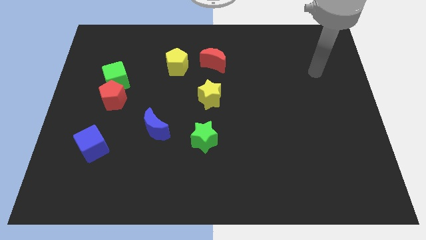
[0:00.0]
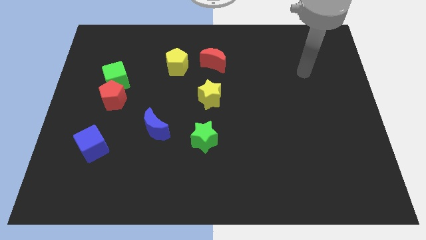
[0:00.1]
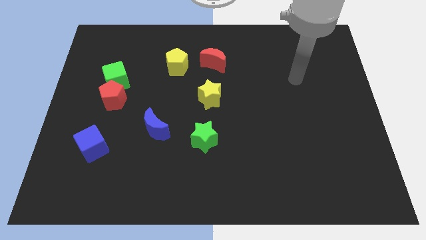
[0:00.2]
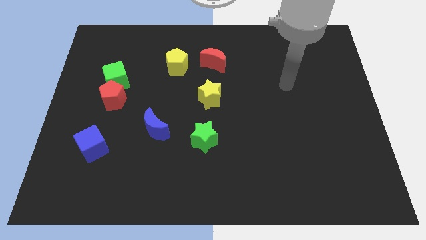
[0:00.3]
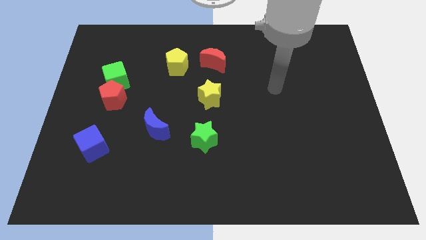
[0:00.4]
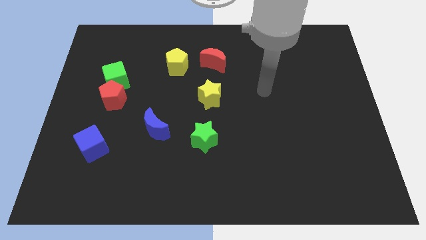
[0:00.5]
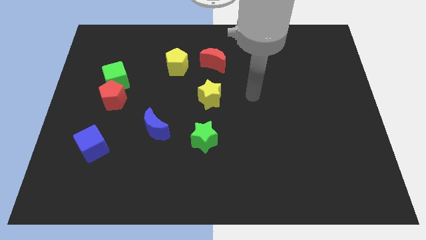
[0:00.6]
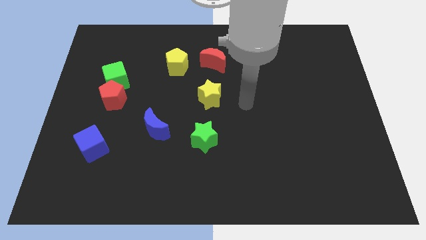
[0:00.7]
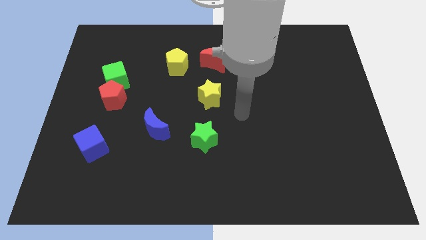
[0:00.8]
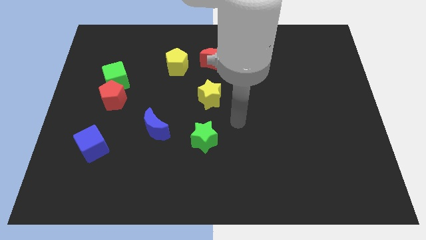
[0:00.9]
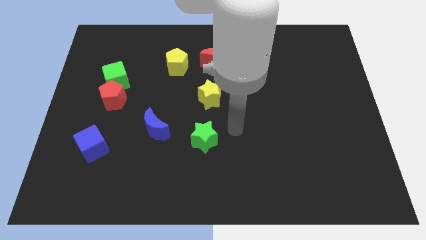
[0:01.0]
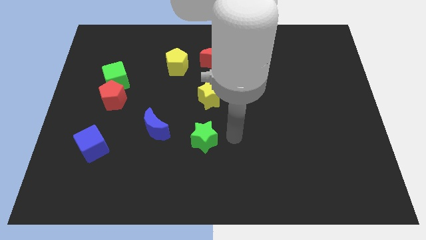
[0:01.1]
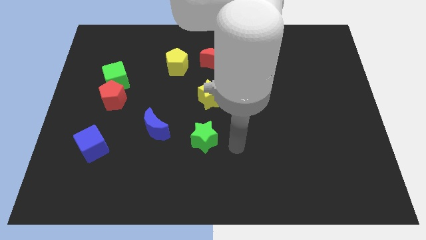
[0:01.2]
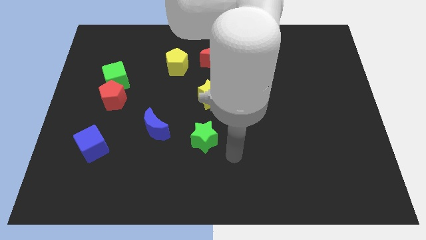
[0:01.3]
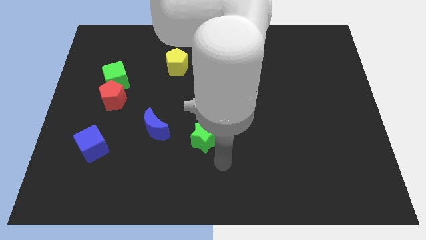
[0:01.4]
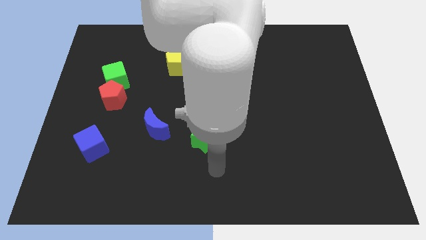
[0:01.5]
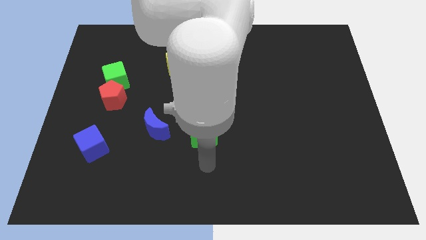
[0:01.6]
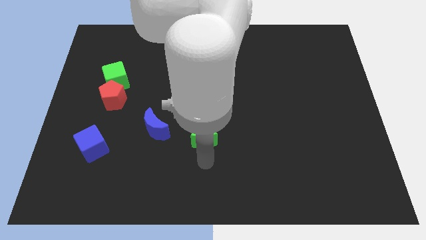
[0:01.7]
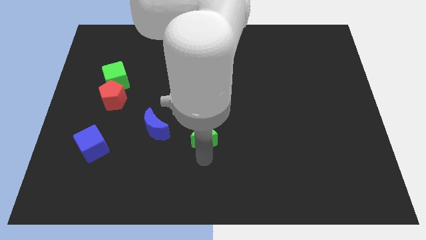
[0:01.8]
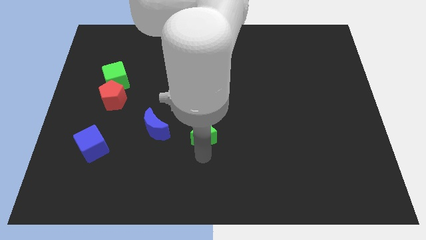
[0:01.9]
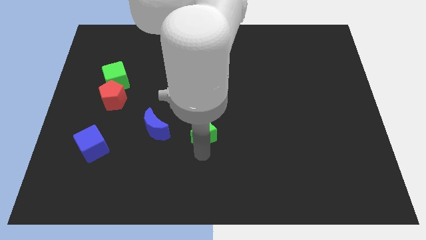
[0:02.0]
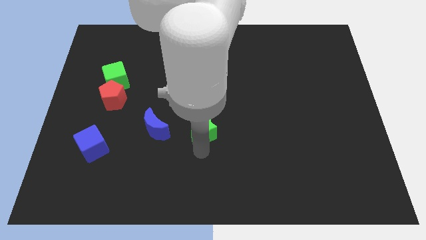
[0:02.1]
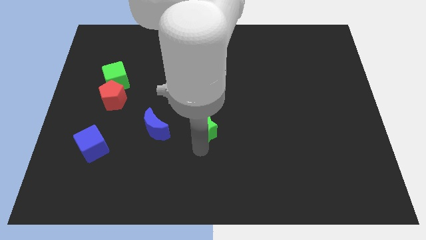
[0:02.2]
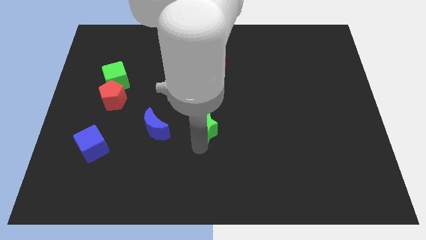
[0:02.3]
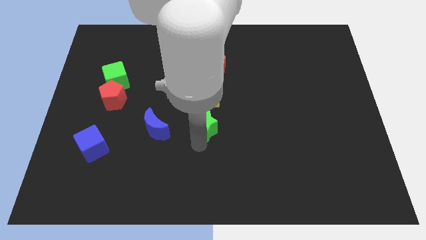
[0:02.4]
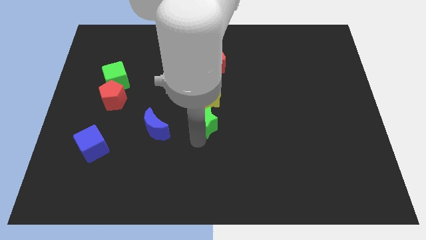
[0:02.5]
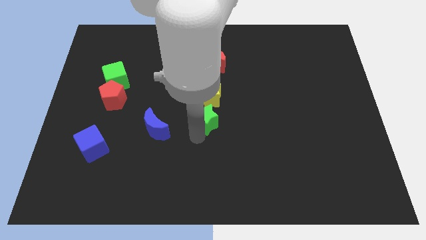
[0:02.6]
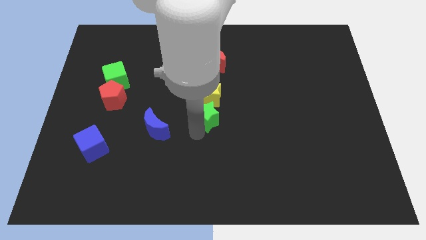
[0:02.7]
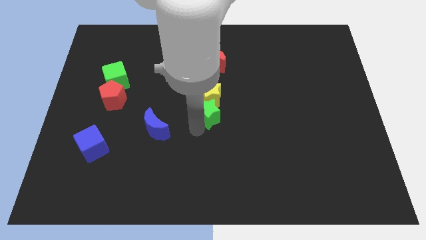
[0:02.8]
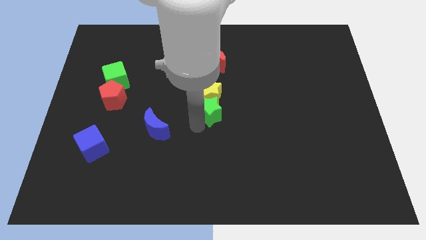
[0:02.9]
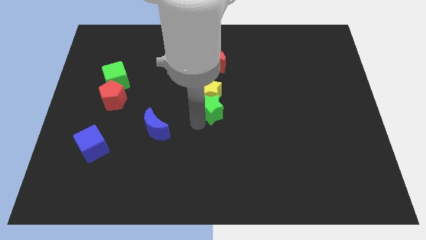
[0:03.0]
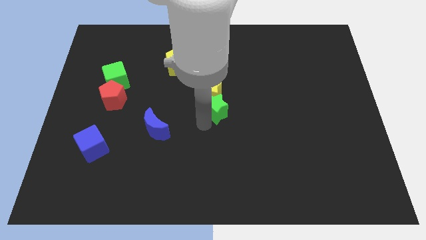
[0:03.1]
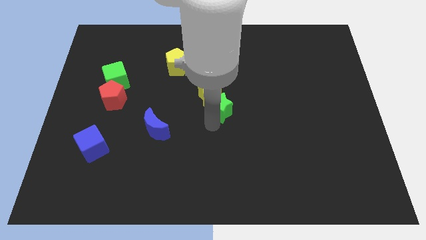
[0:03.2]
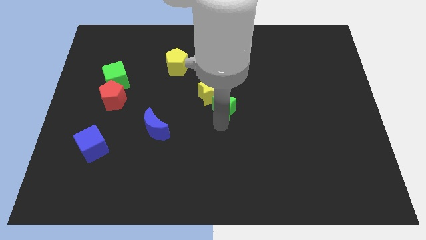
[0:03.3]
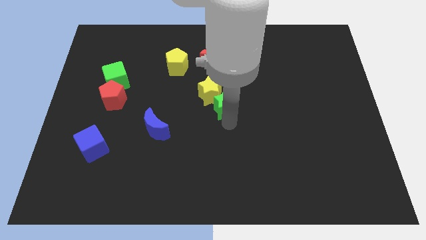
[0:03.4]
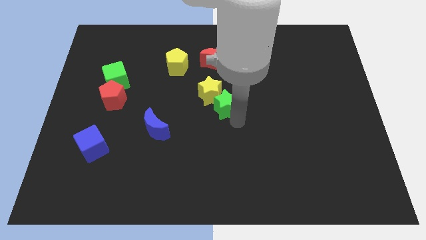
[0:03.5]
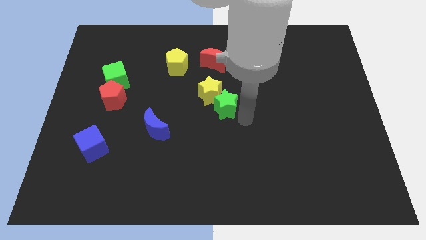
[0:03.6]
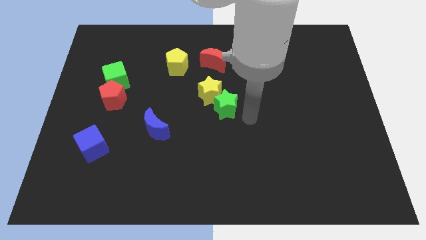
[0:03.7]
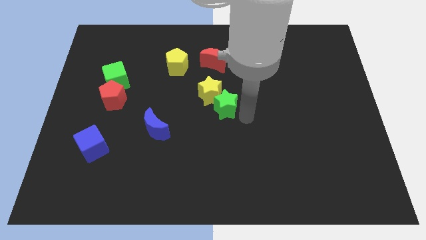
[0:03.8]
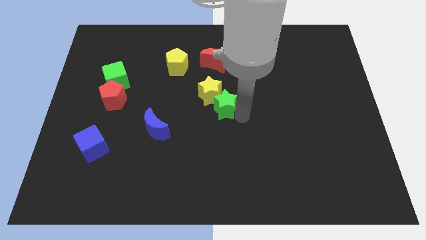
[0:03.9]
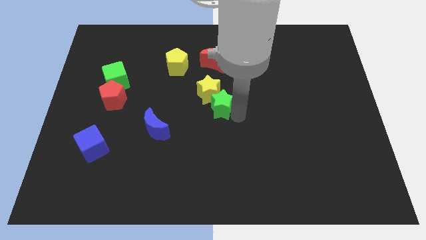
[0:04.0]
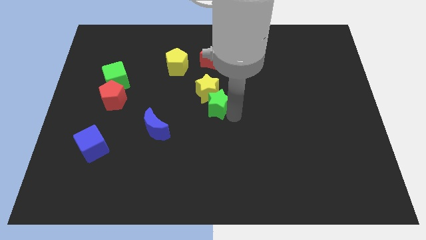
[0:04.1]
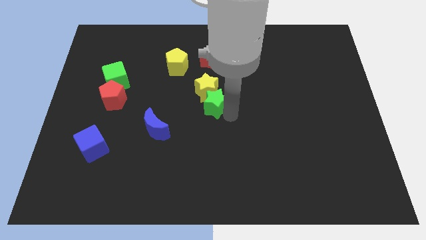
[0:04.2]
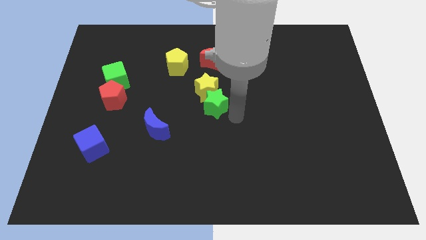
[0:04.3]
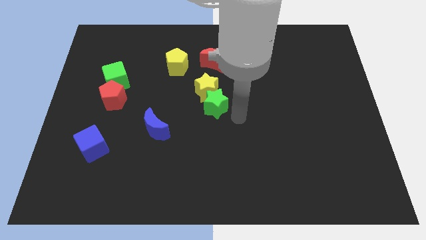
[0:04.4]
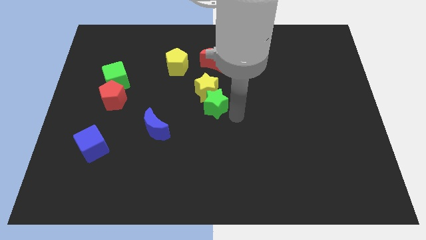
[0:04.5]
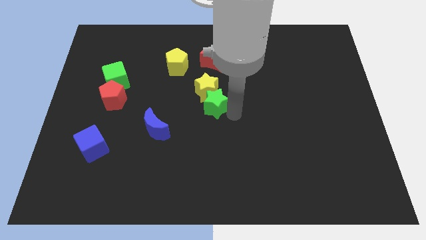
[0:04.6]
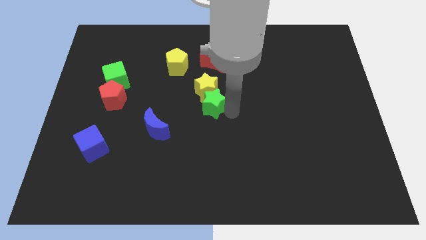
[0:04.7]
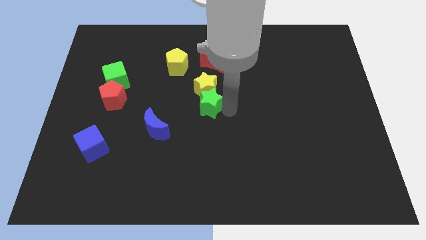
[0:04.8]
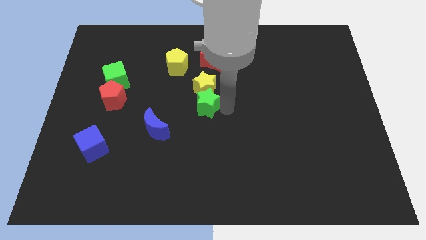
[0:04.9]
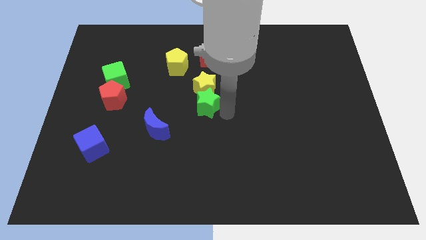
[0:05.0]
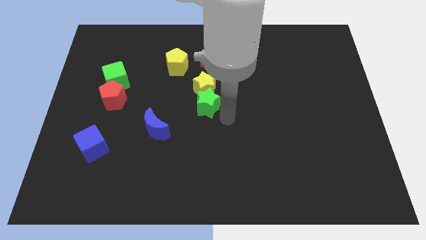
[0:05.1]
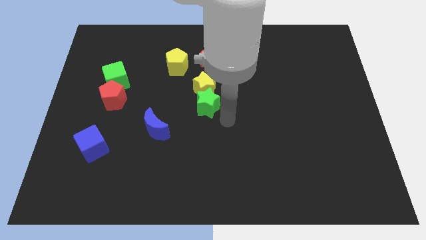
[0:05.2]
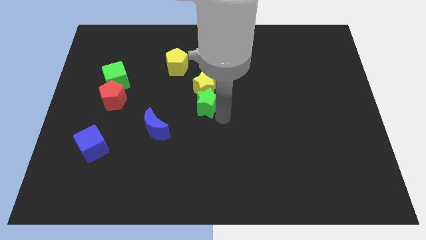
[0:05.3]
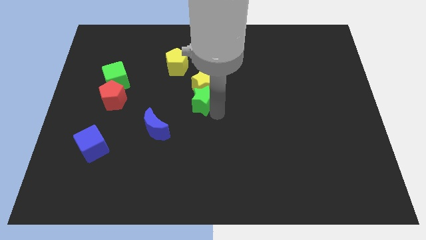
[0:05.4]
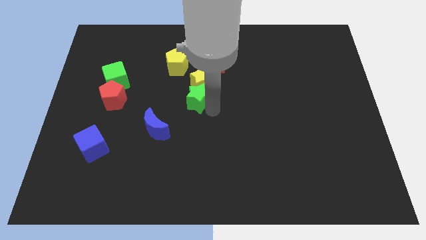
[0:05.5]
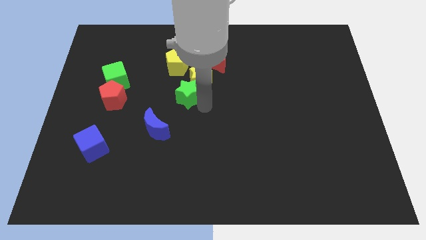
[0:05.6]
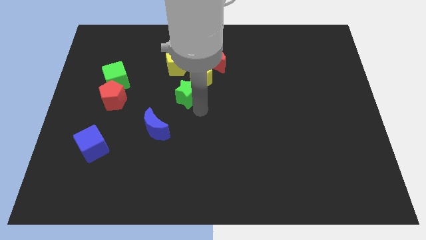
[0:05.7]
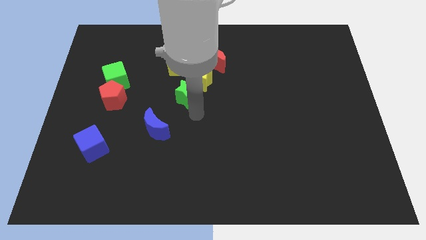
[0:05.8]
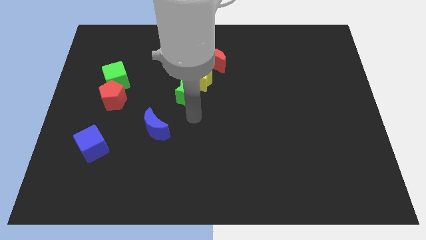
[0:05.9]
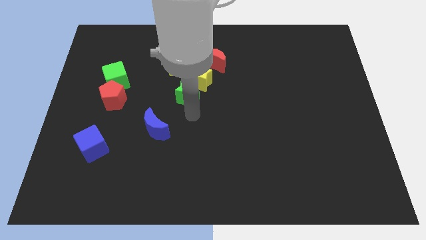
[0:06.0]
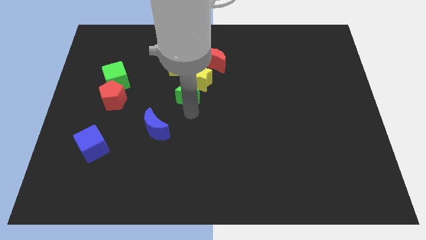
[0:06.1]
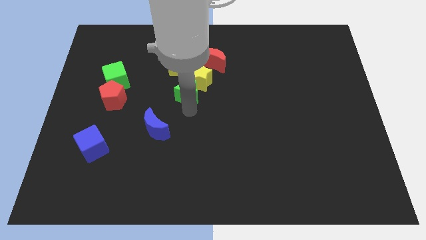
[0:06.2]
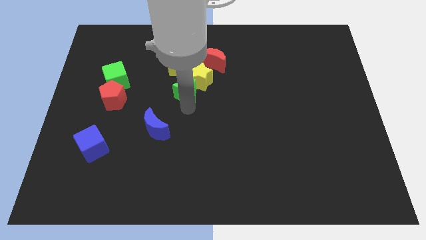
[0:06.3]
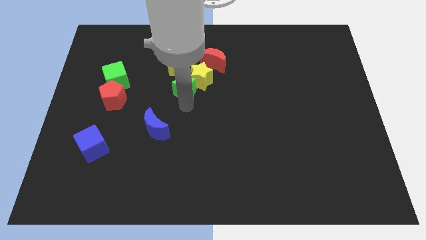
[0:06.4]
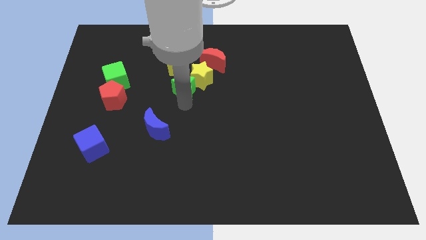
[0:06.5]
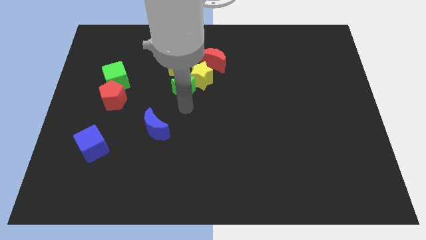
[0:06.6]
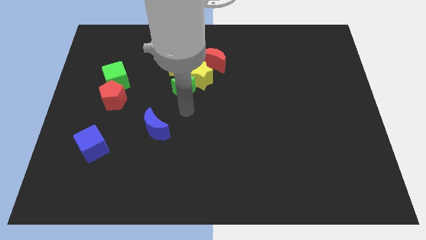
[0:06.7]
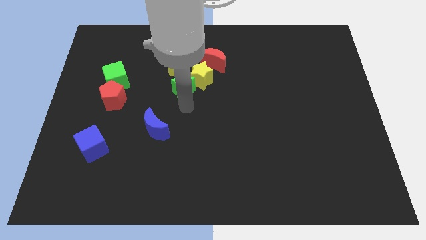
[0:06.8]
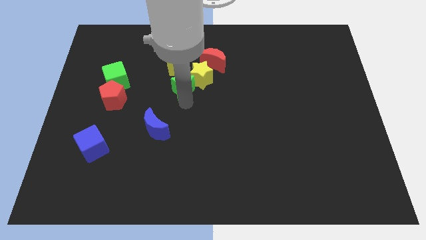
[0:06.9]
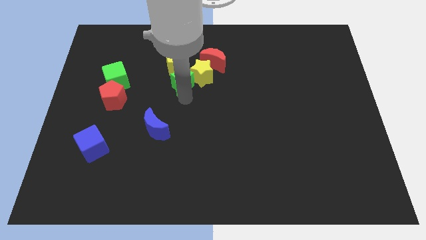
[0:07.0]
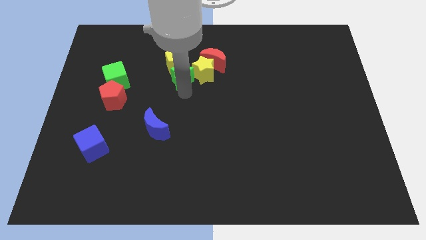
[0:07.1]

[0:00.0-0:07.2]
move the green star next to the yellow pentagon

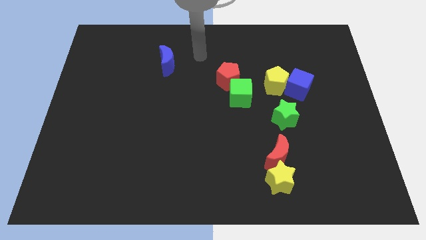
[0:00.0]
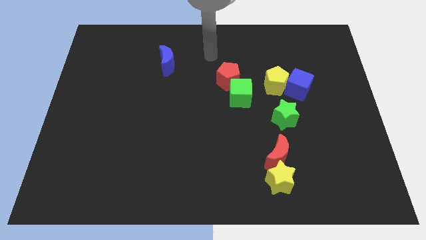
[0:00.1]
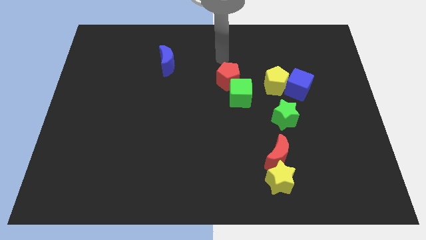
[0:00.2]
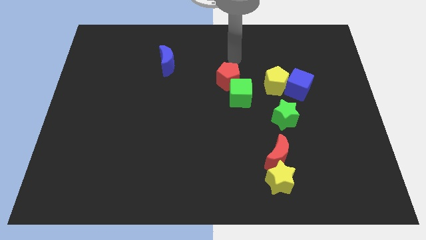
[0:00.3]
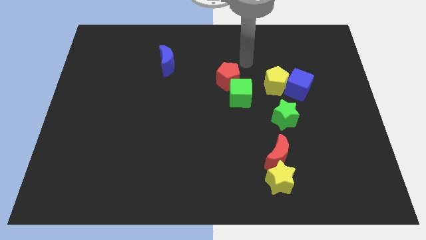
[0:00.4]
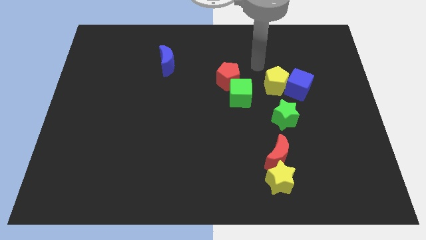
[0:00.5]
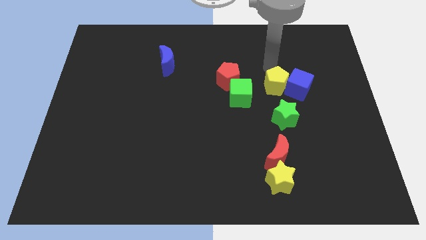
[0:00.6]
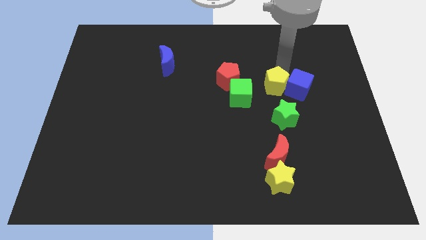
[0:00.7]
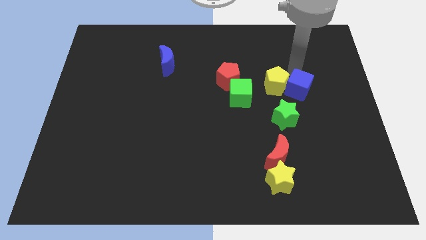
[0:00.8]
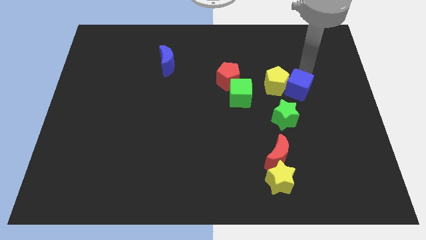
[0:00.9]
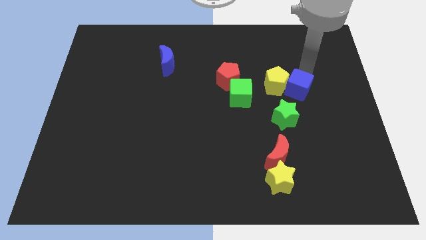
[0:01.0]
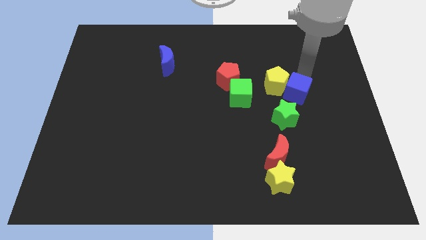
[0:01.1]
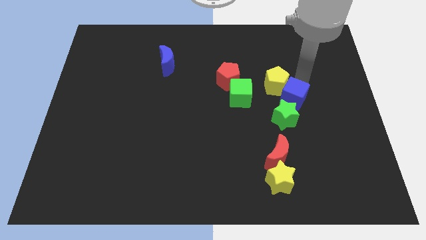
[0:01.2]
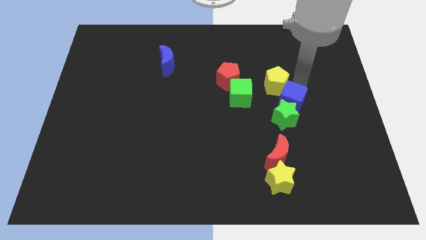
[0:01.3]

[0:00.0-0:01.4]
move the blue cube close to the green star
